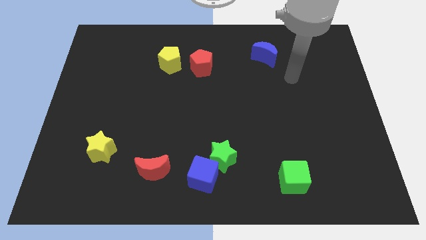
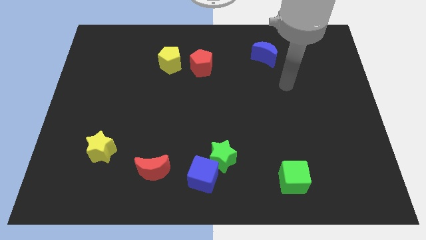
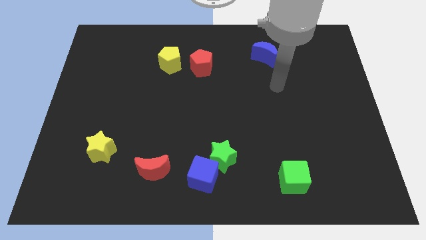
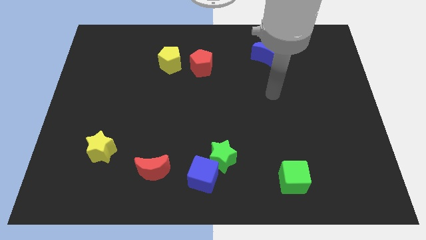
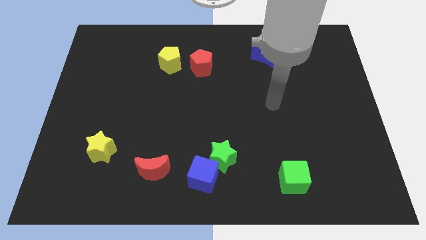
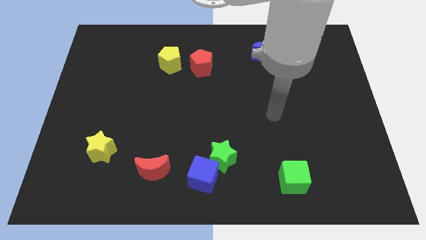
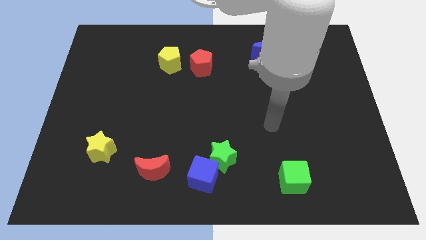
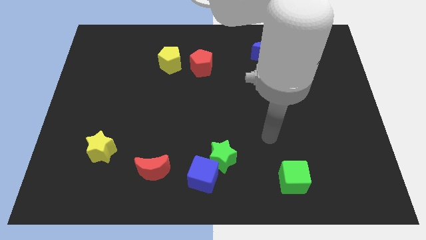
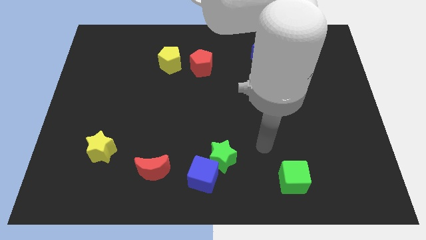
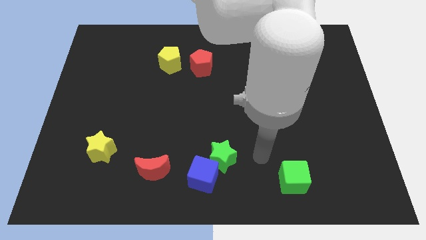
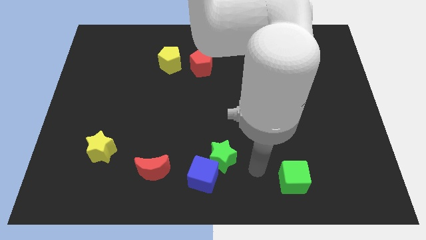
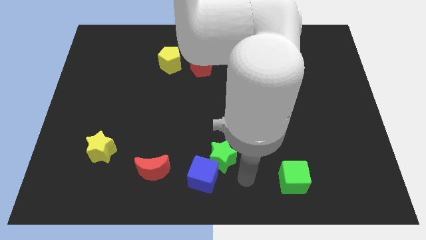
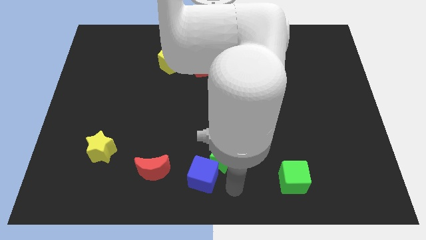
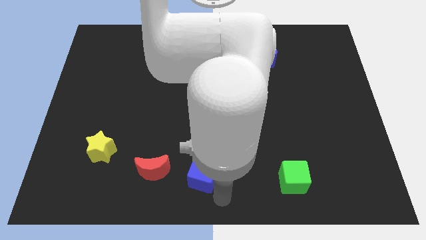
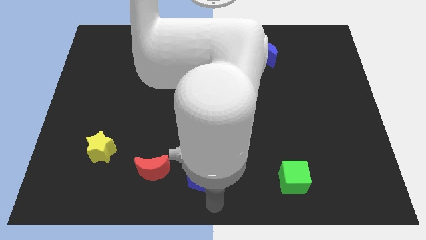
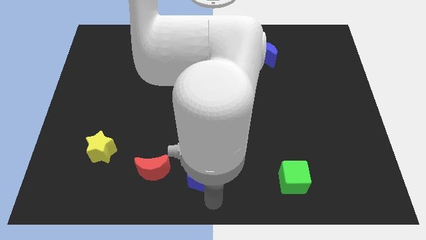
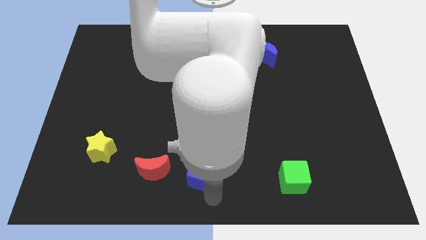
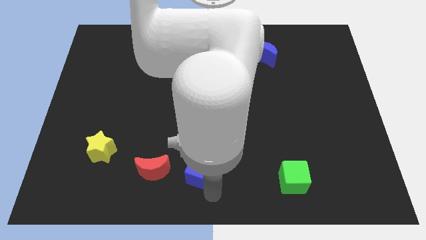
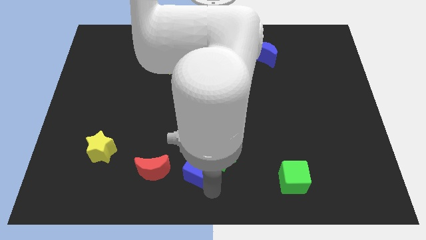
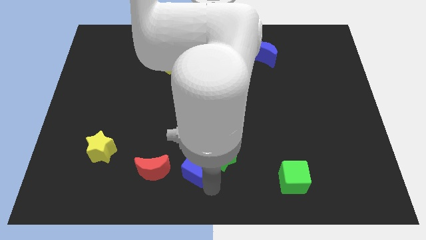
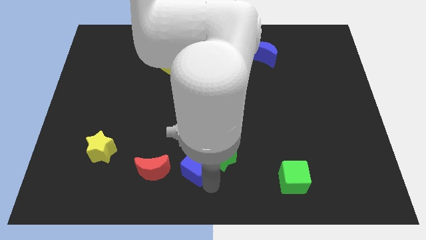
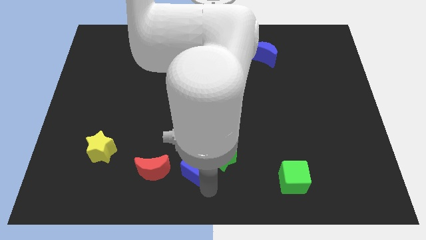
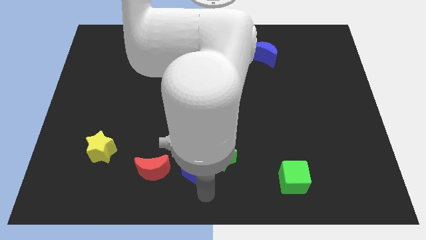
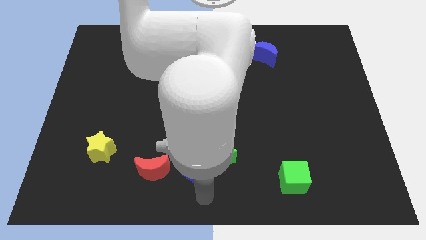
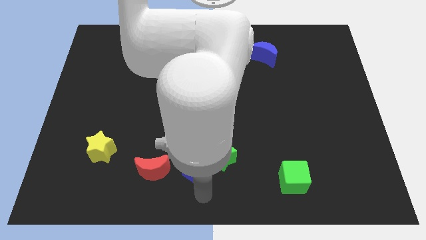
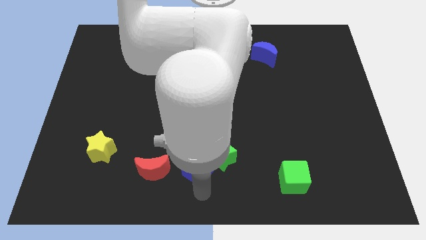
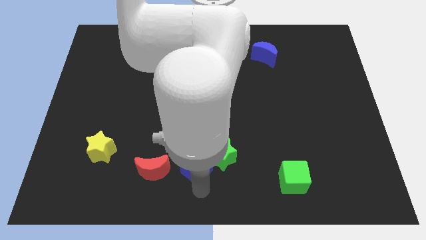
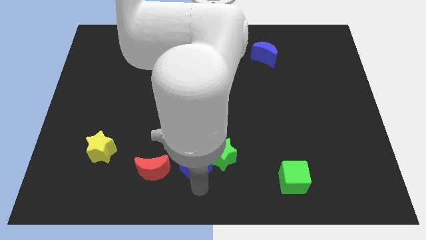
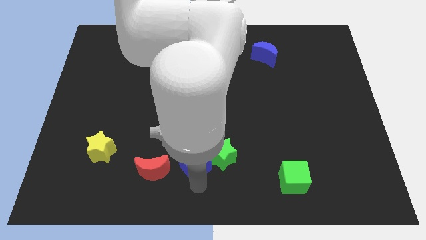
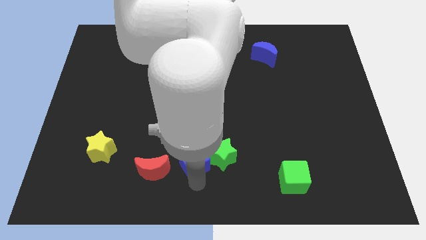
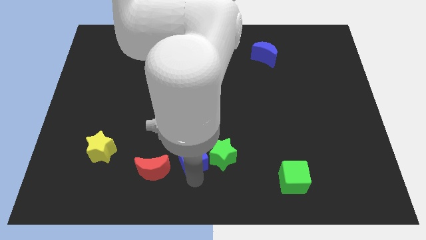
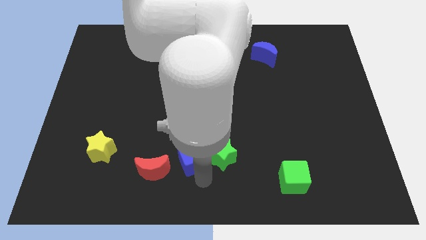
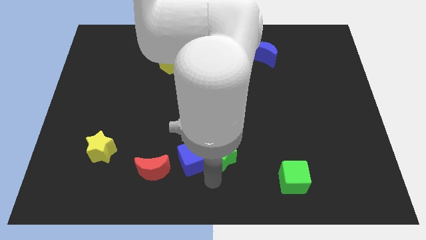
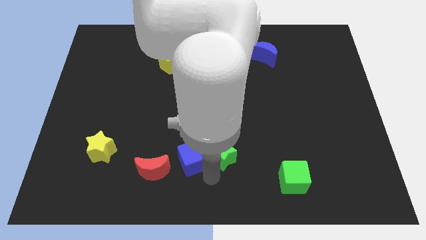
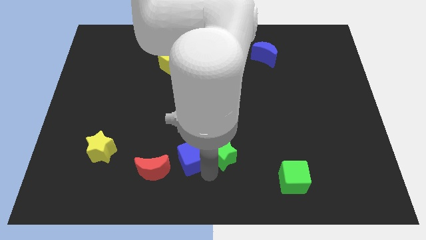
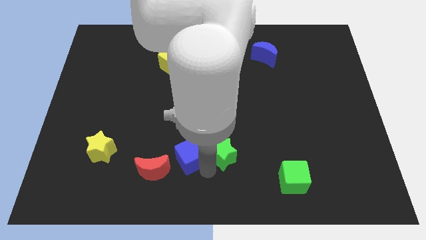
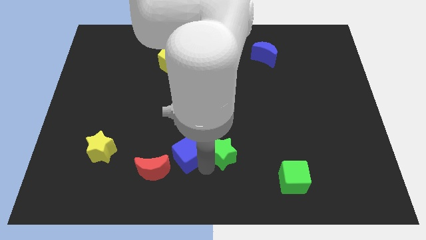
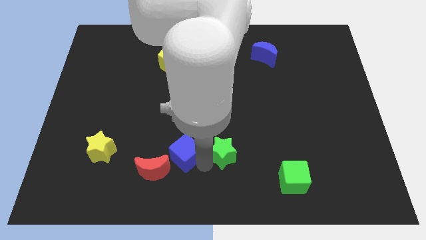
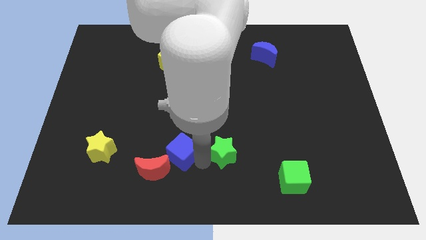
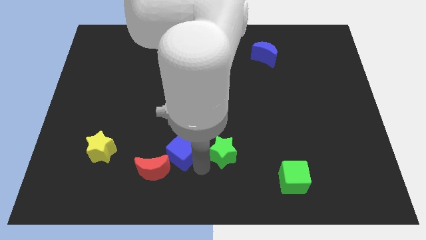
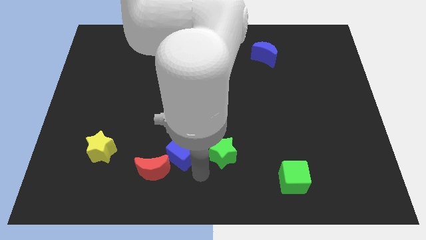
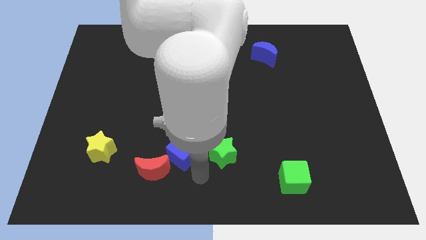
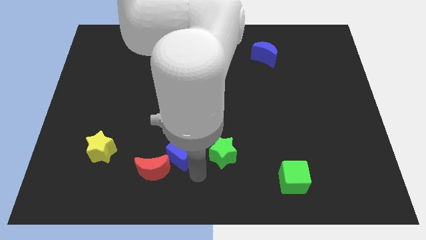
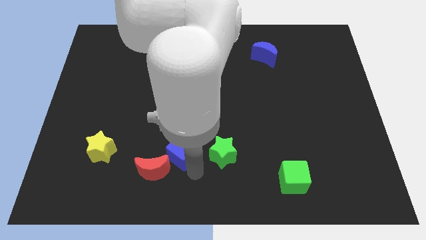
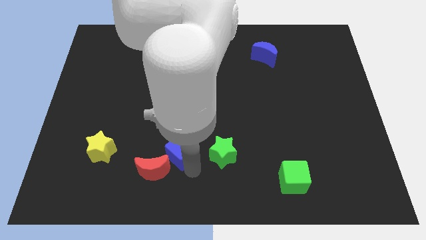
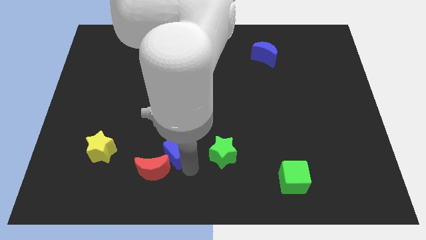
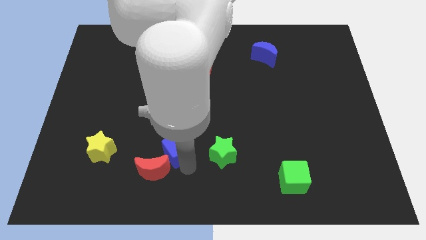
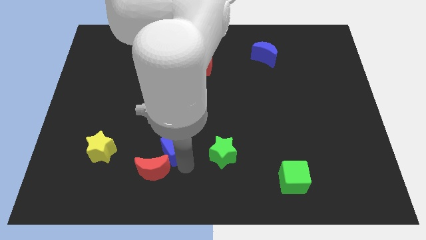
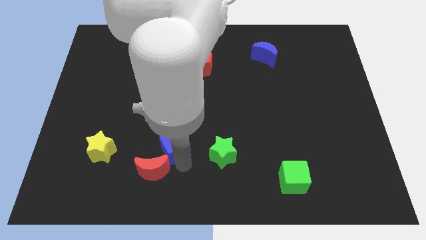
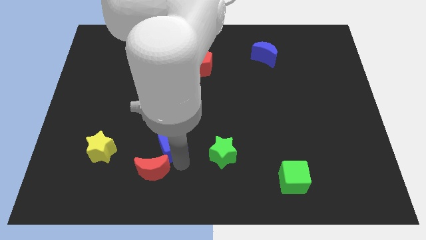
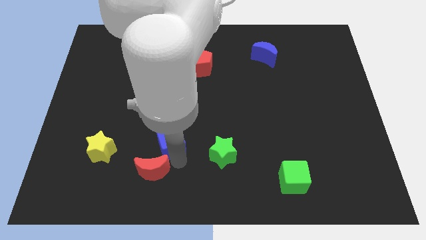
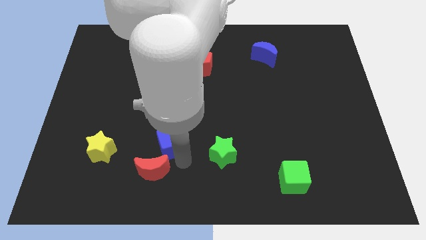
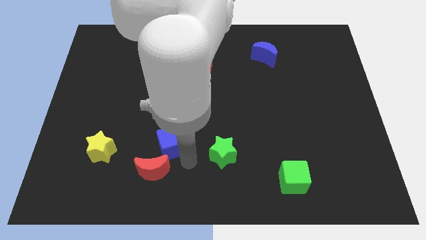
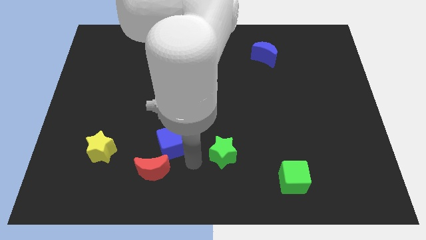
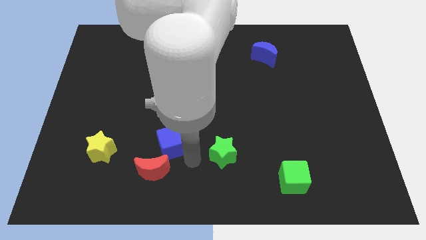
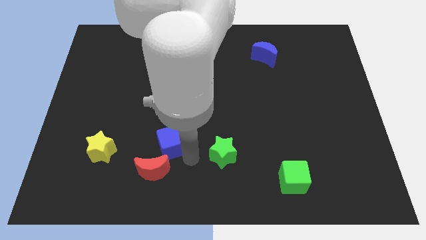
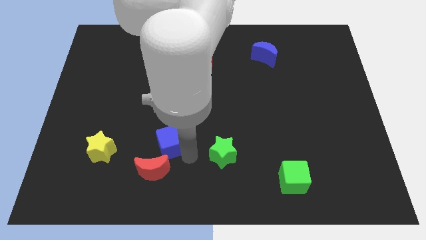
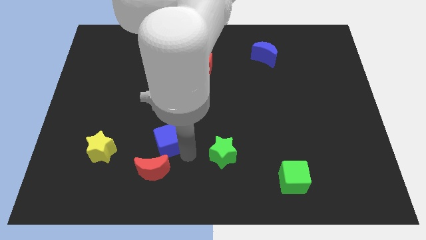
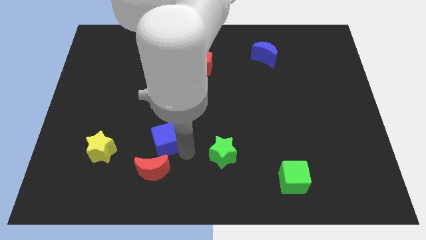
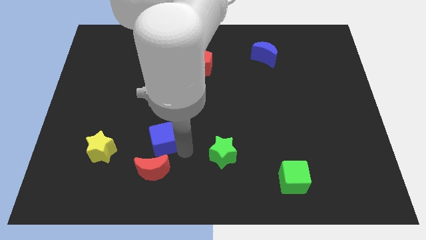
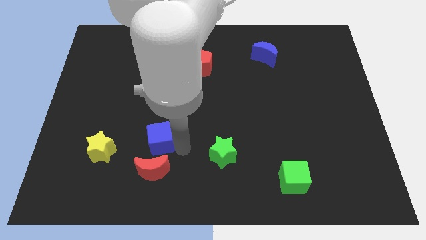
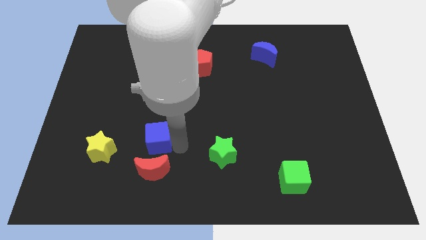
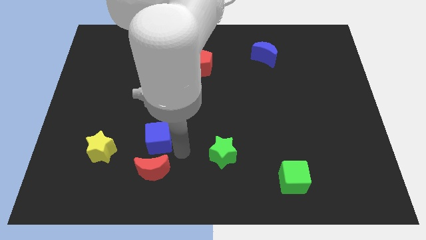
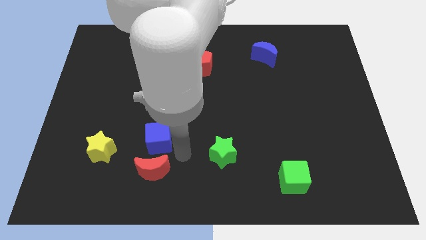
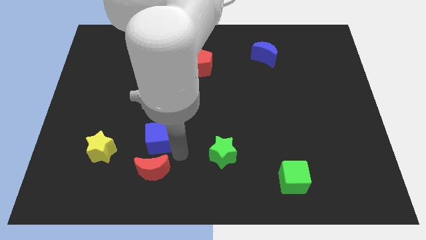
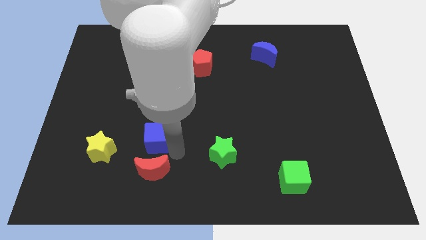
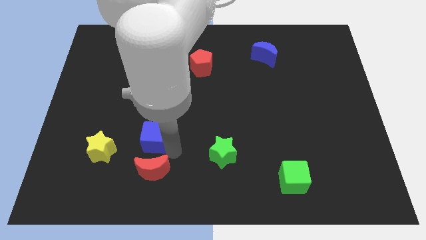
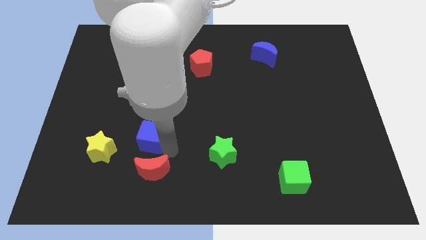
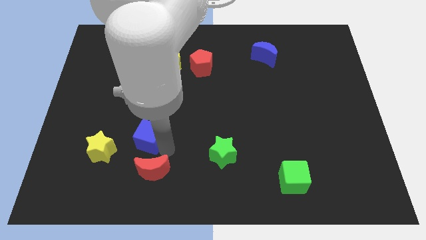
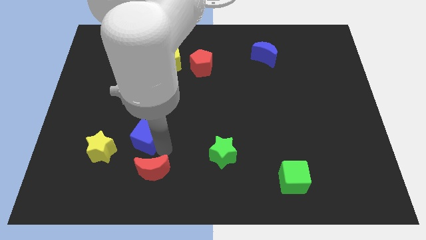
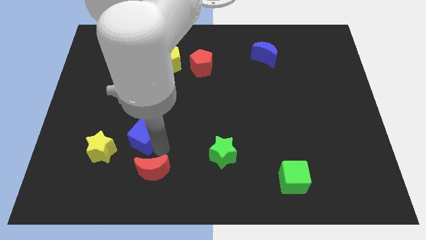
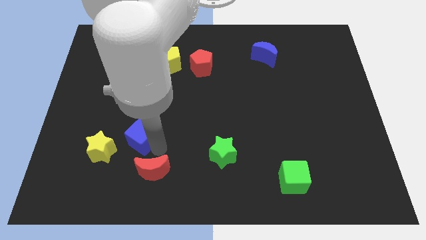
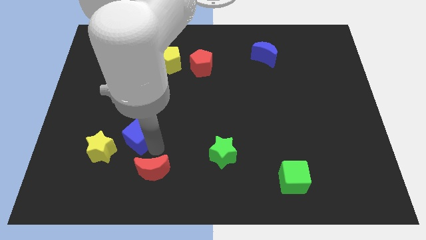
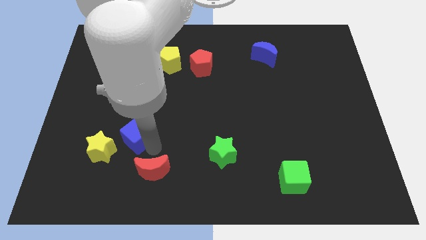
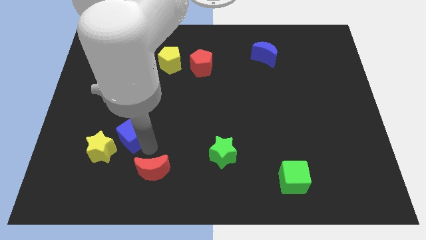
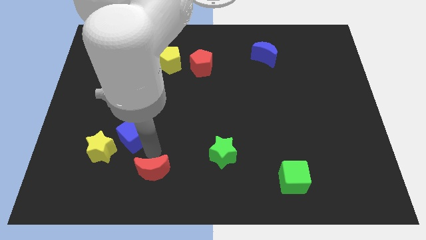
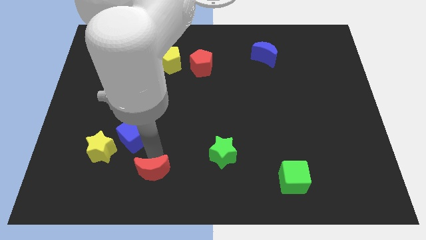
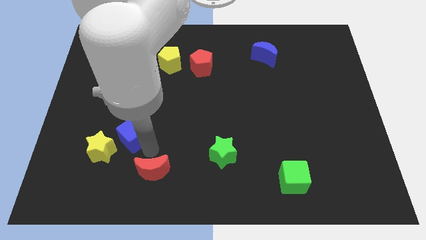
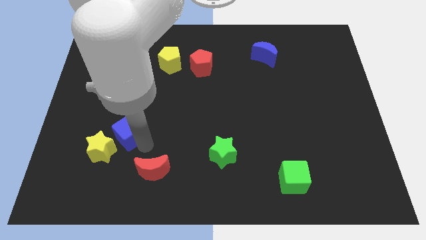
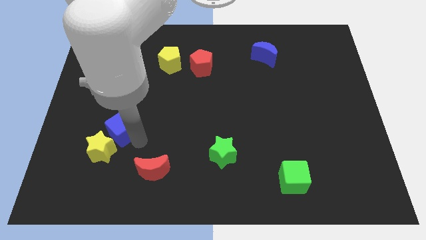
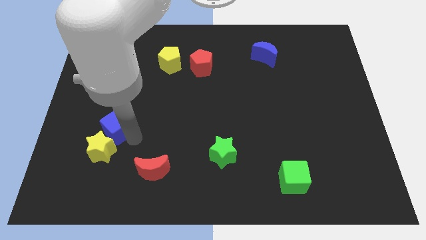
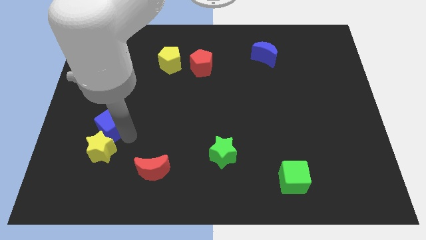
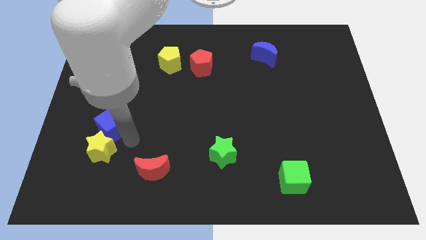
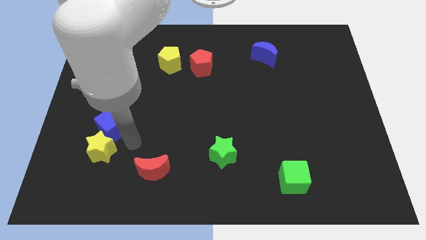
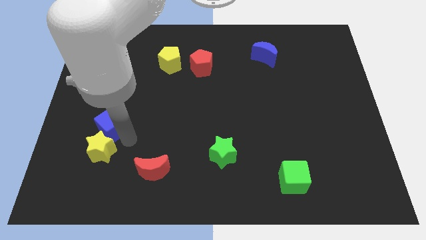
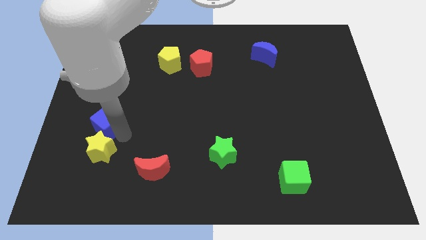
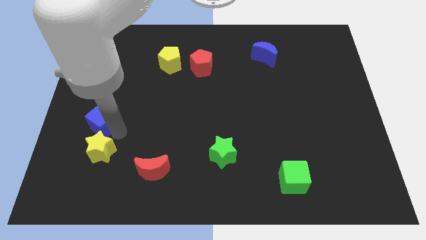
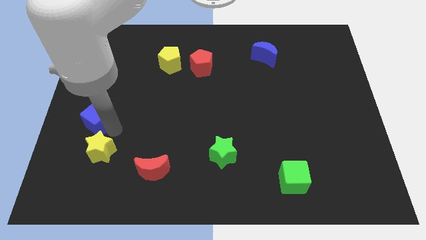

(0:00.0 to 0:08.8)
slide the blue cube to the center left
